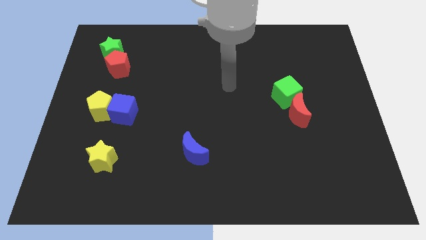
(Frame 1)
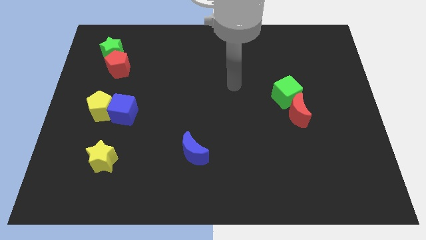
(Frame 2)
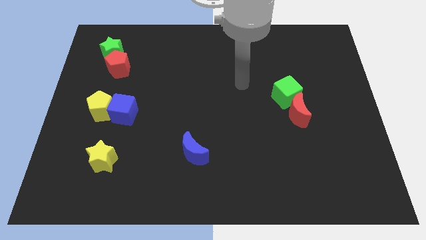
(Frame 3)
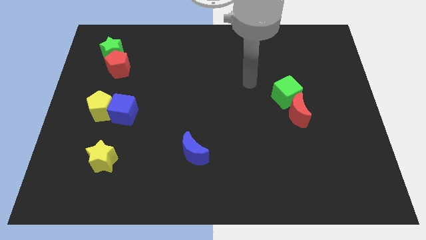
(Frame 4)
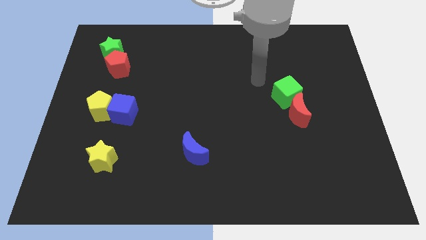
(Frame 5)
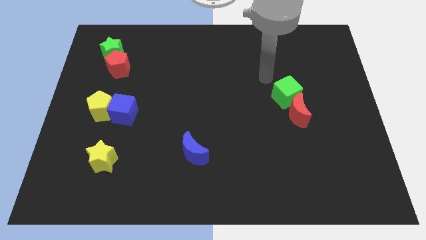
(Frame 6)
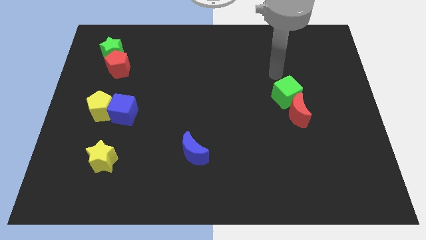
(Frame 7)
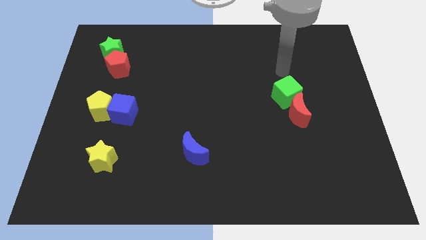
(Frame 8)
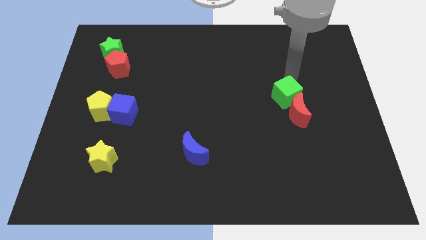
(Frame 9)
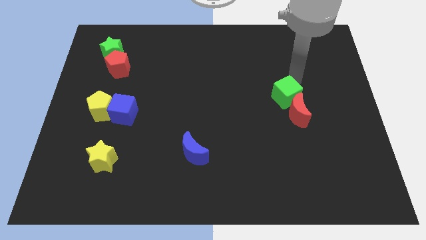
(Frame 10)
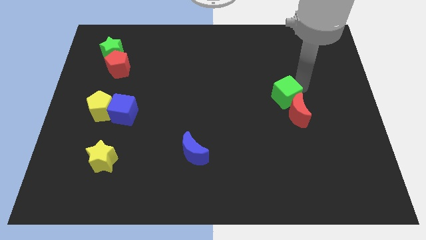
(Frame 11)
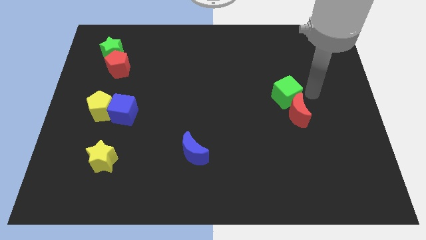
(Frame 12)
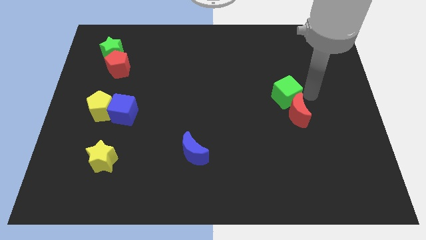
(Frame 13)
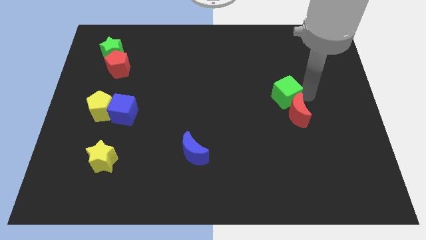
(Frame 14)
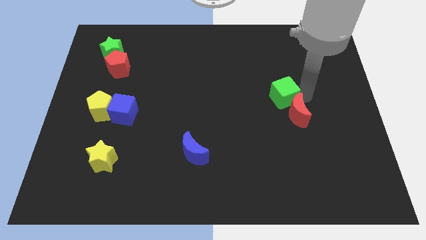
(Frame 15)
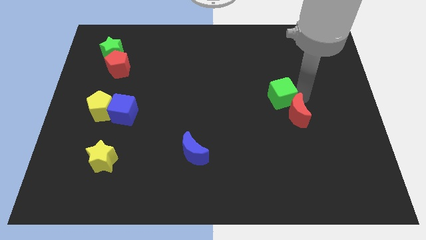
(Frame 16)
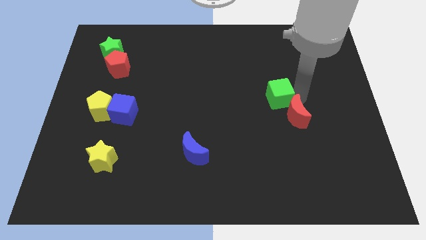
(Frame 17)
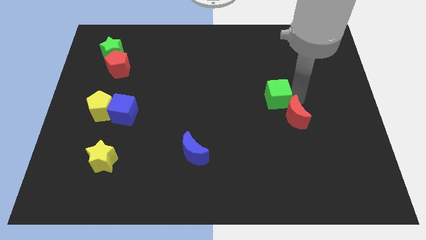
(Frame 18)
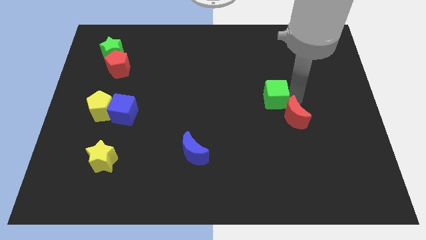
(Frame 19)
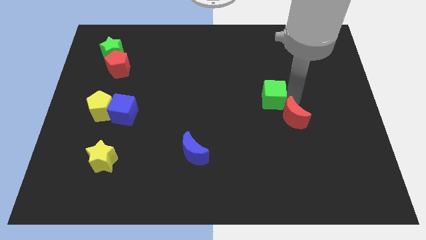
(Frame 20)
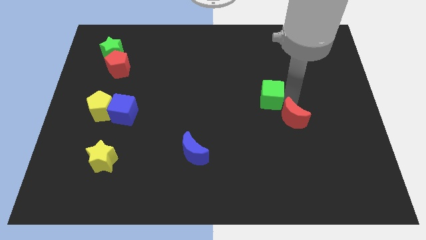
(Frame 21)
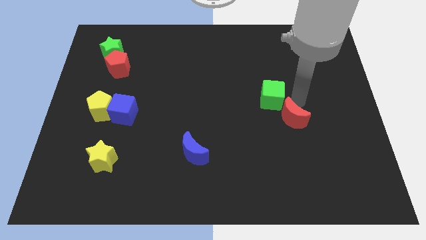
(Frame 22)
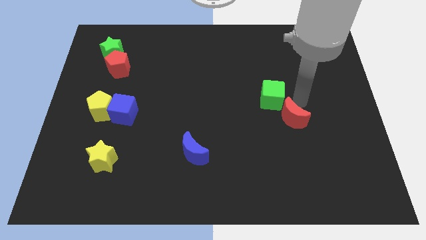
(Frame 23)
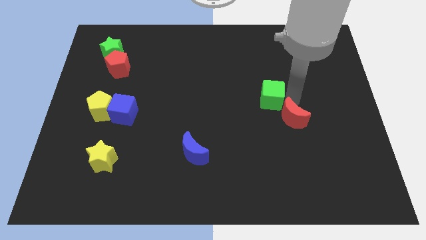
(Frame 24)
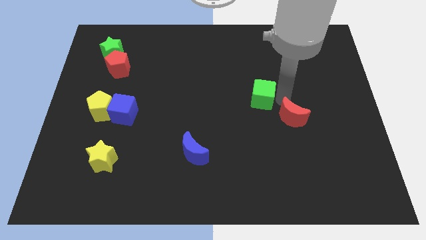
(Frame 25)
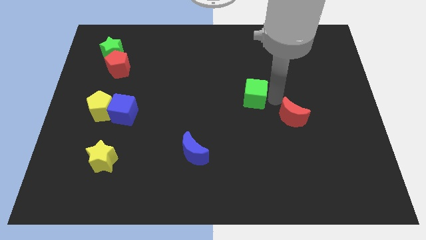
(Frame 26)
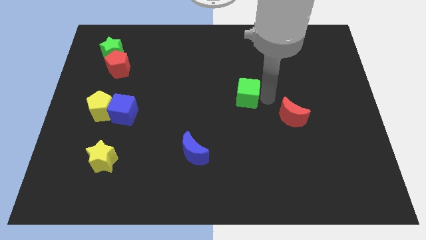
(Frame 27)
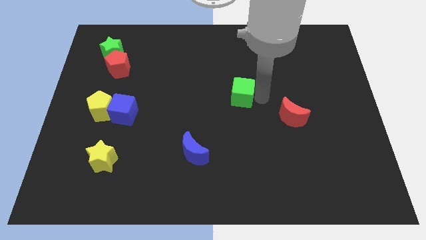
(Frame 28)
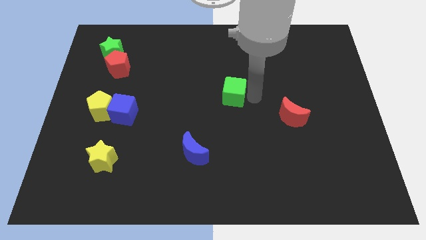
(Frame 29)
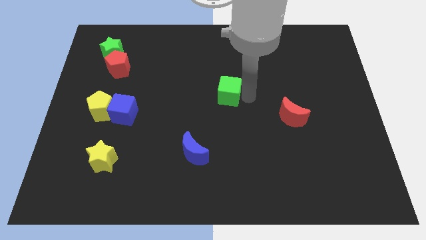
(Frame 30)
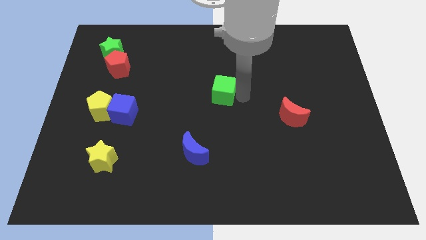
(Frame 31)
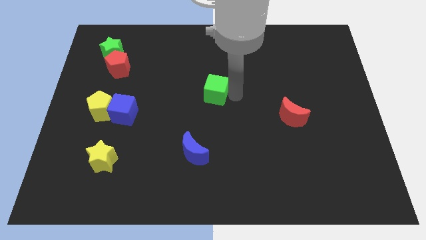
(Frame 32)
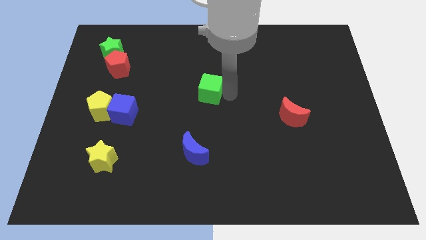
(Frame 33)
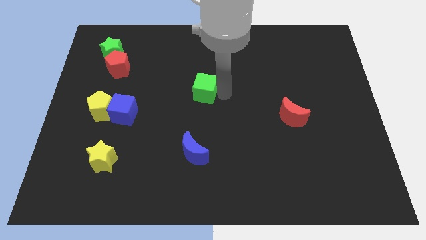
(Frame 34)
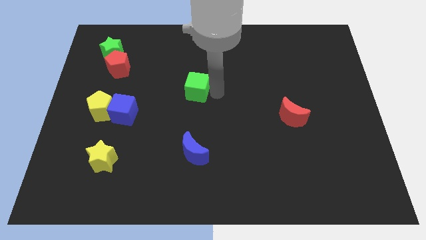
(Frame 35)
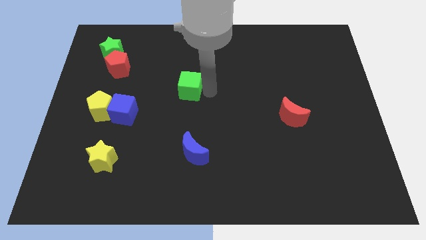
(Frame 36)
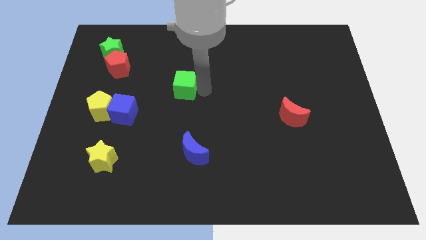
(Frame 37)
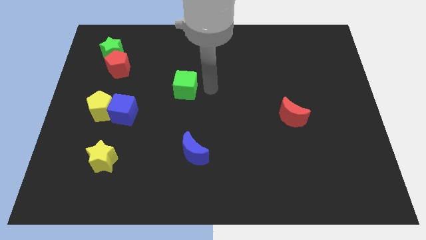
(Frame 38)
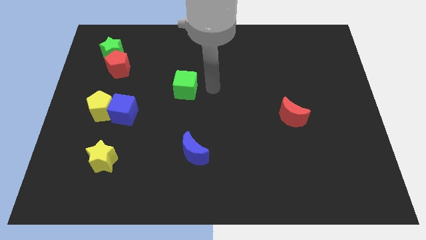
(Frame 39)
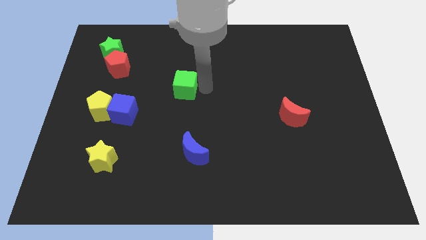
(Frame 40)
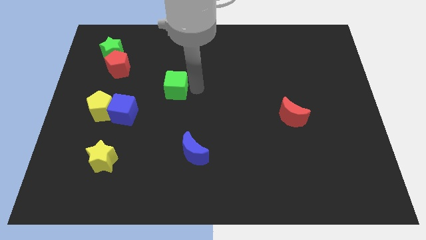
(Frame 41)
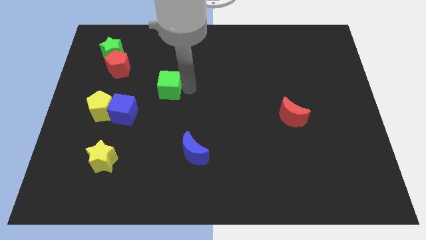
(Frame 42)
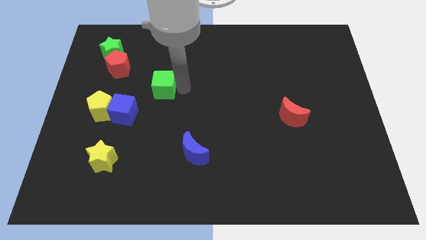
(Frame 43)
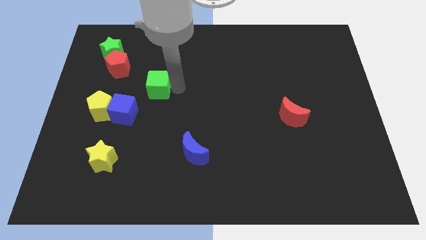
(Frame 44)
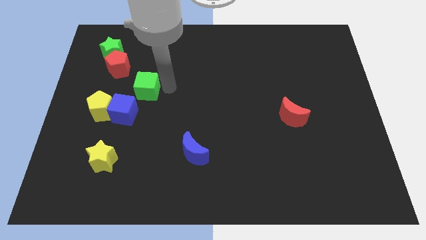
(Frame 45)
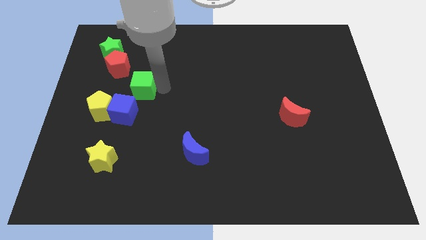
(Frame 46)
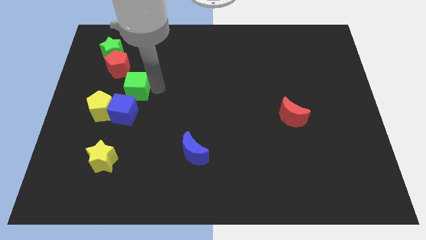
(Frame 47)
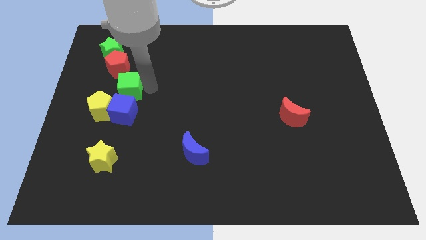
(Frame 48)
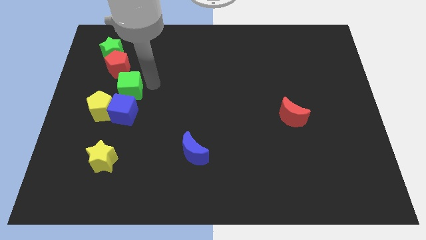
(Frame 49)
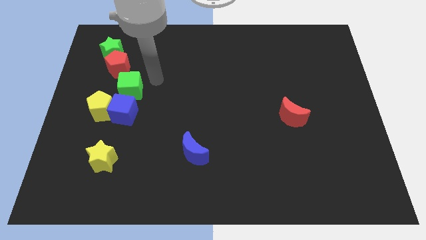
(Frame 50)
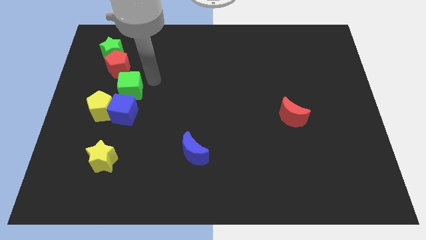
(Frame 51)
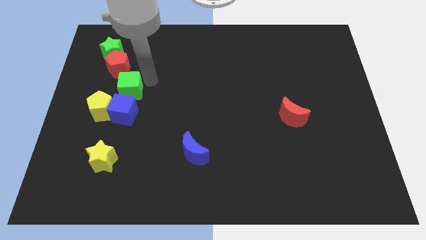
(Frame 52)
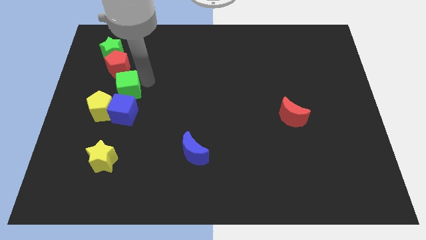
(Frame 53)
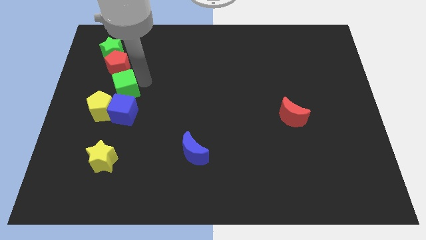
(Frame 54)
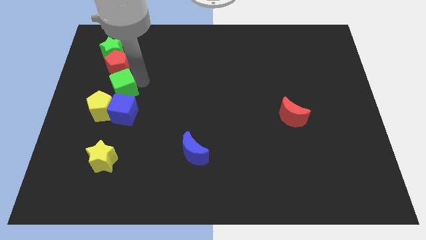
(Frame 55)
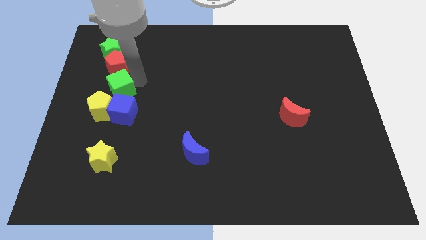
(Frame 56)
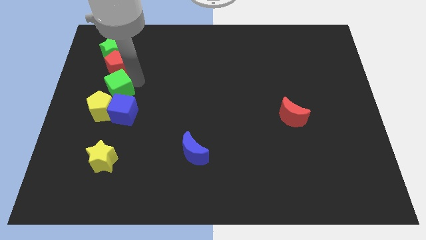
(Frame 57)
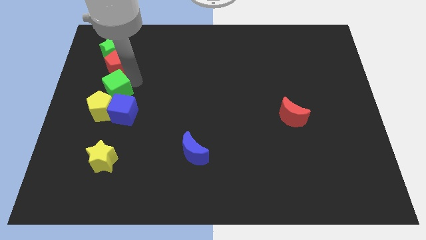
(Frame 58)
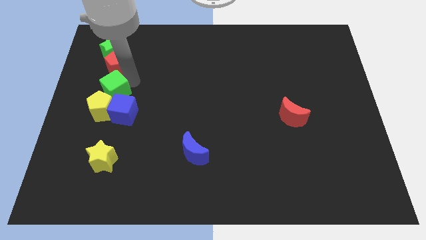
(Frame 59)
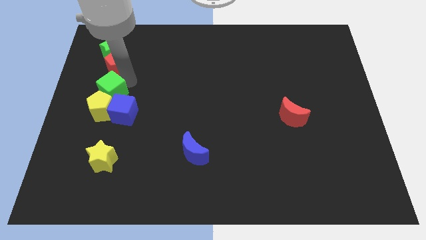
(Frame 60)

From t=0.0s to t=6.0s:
put the green cube towards the yellow pentagon
